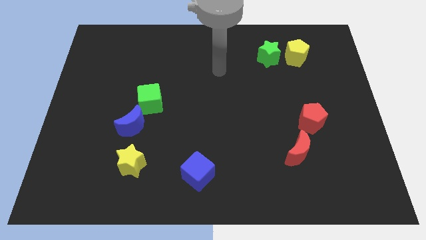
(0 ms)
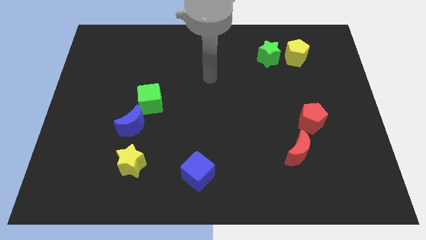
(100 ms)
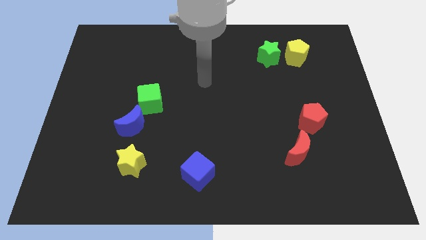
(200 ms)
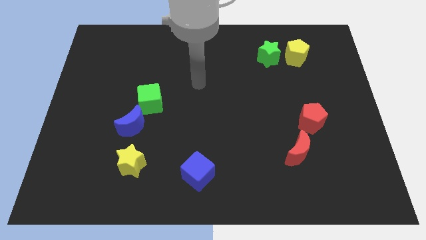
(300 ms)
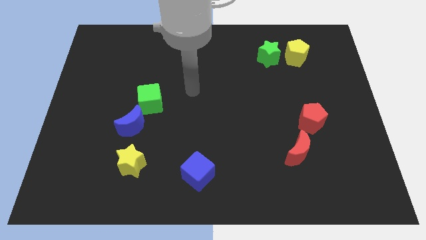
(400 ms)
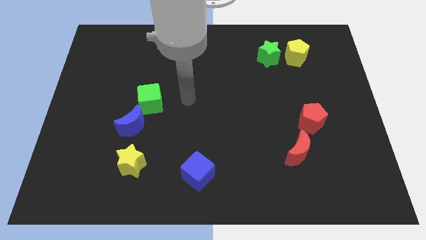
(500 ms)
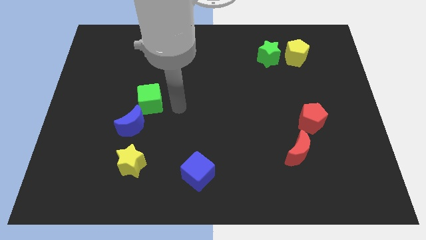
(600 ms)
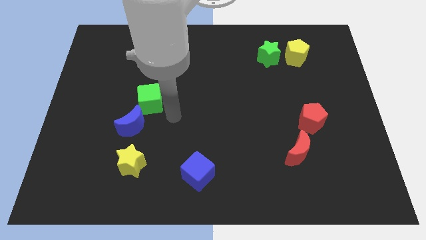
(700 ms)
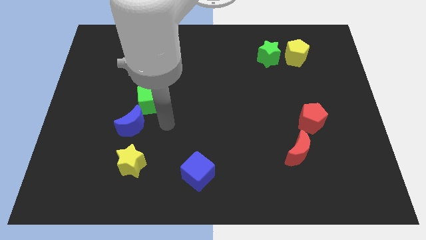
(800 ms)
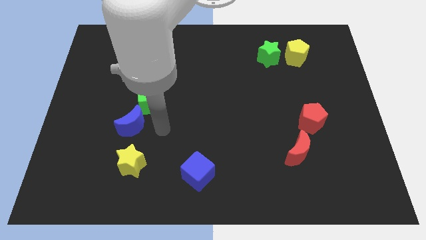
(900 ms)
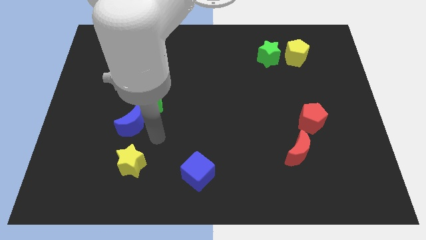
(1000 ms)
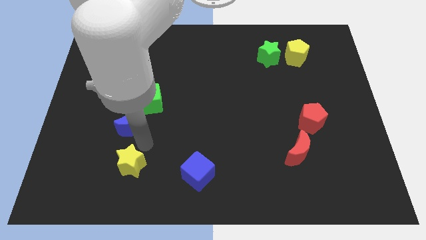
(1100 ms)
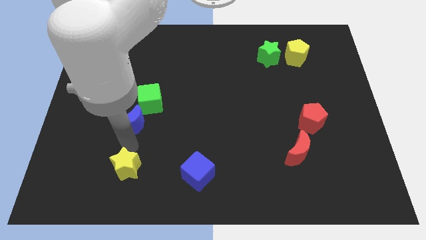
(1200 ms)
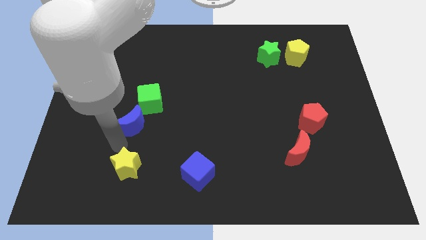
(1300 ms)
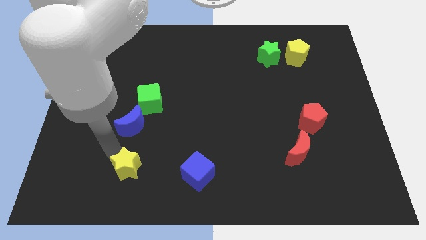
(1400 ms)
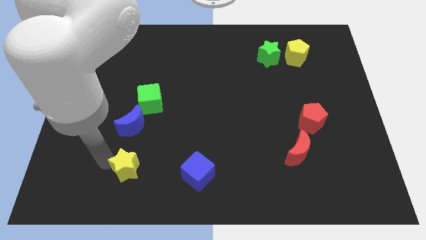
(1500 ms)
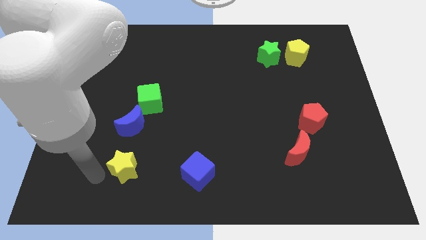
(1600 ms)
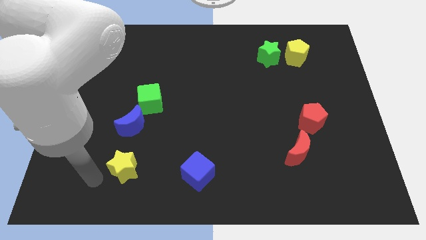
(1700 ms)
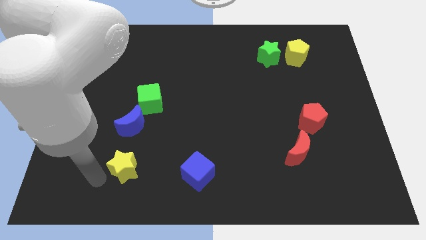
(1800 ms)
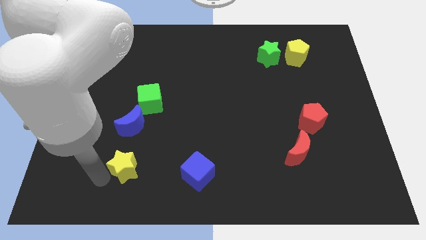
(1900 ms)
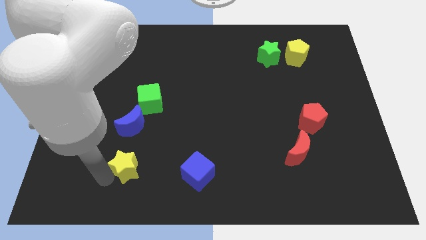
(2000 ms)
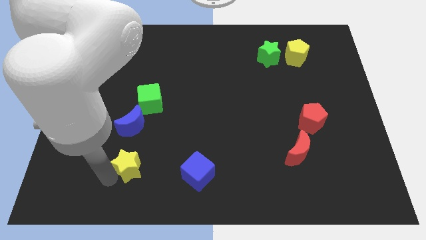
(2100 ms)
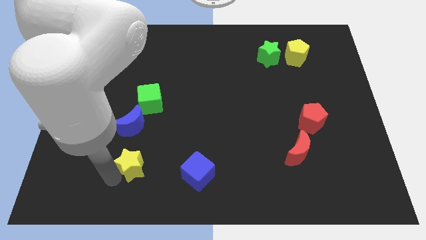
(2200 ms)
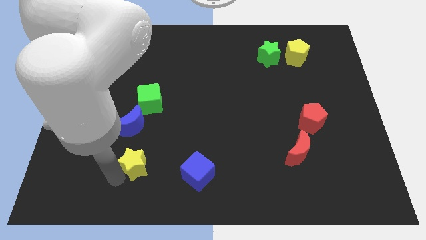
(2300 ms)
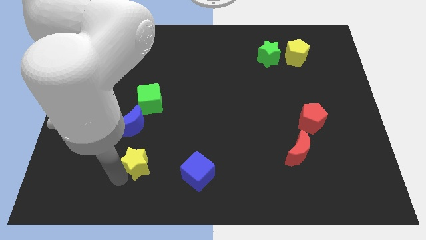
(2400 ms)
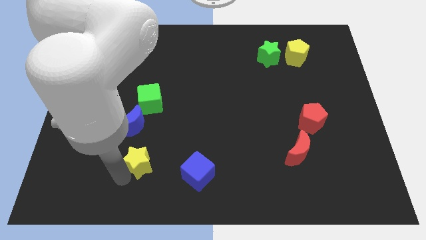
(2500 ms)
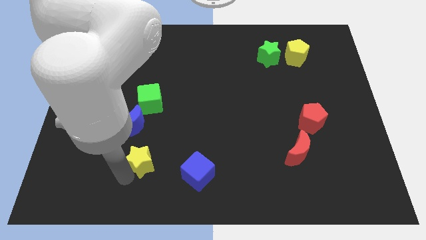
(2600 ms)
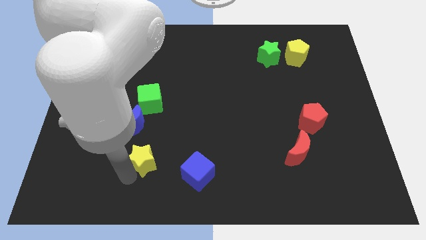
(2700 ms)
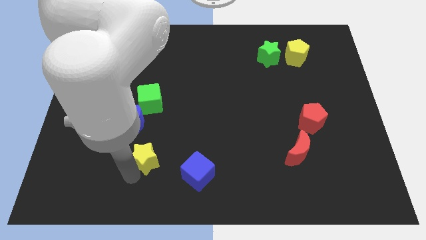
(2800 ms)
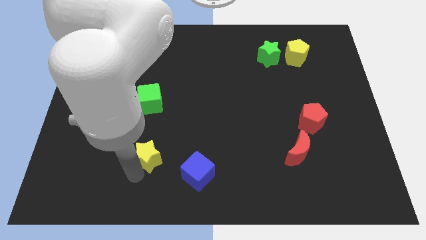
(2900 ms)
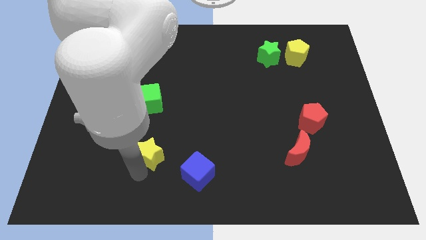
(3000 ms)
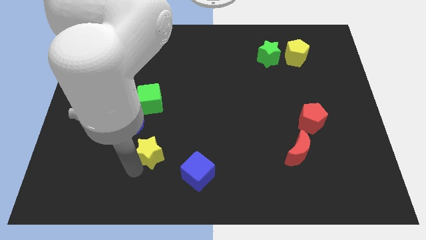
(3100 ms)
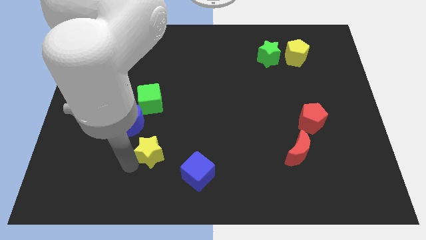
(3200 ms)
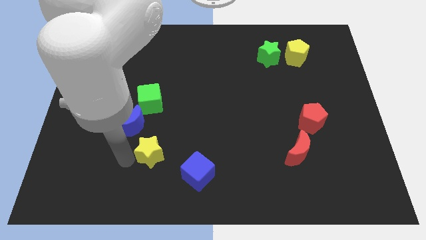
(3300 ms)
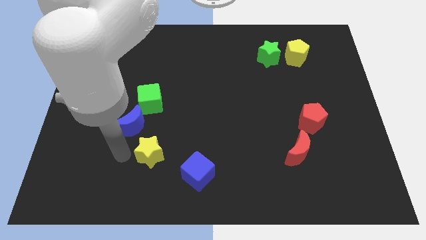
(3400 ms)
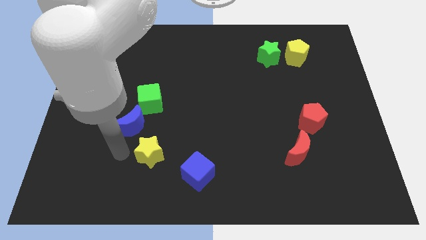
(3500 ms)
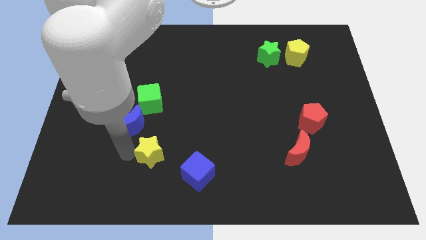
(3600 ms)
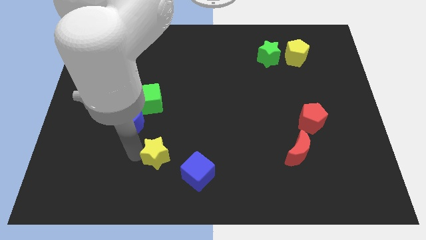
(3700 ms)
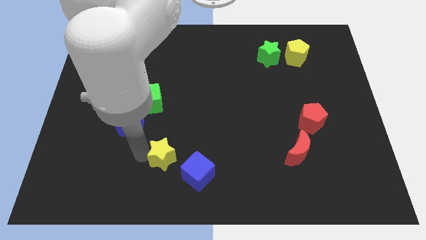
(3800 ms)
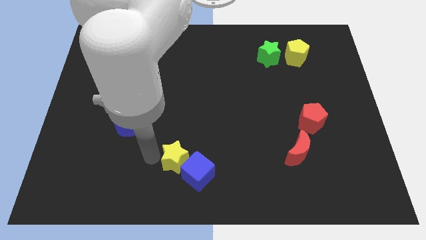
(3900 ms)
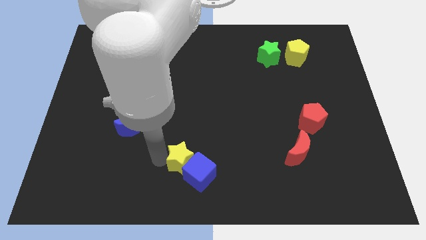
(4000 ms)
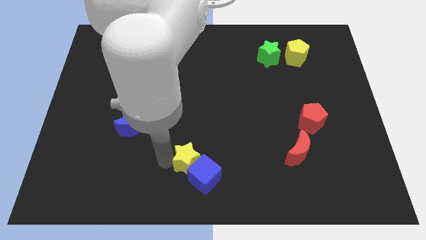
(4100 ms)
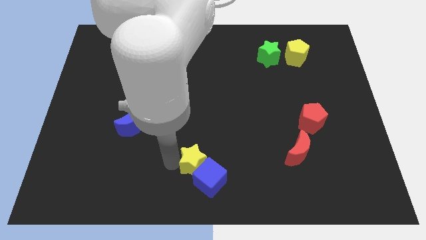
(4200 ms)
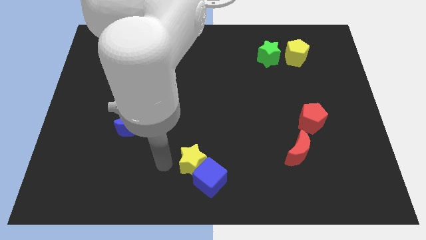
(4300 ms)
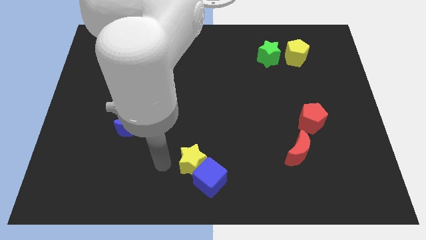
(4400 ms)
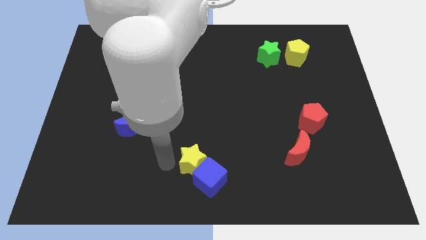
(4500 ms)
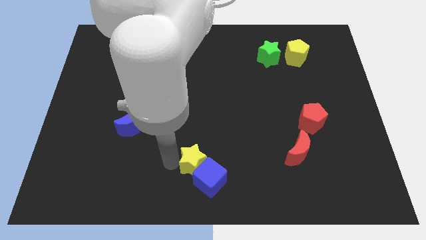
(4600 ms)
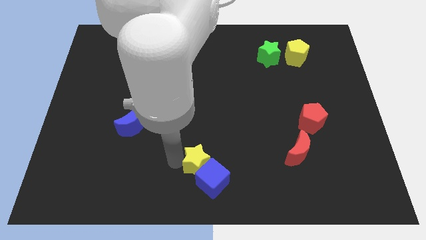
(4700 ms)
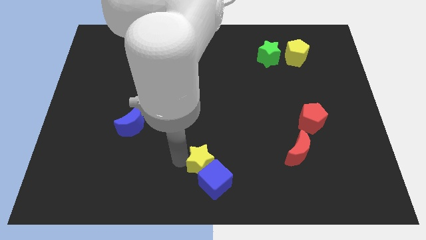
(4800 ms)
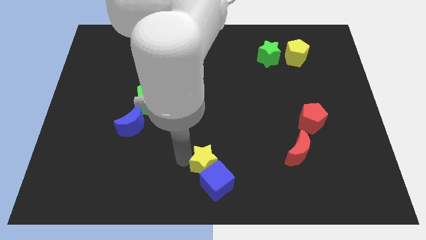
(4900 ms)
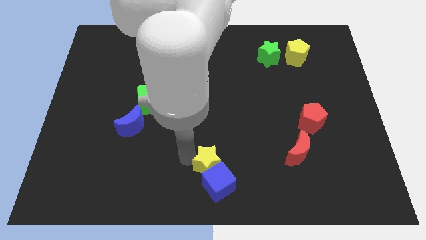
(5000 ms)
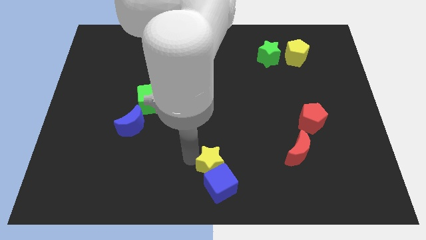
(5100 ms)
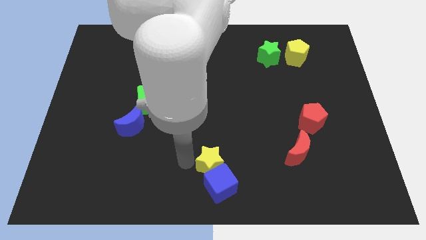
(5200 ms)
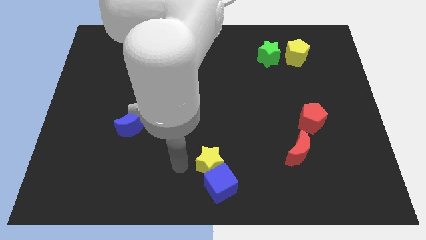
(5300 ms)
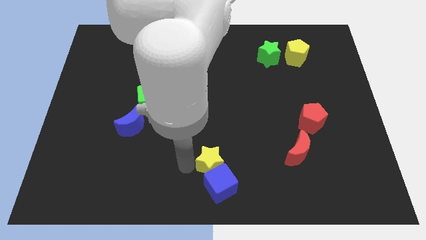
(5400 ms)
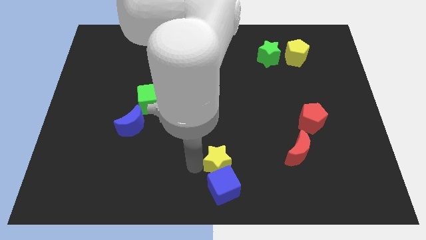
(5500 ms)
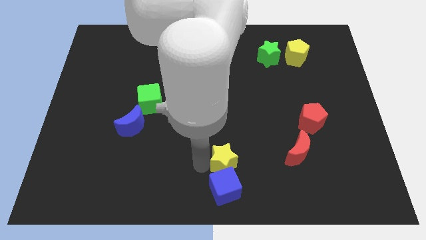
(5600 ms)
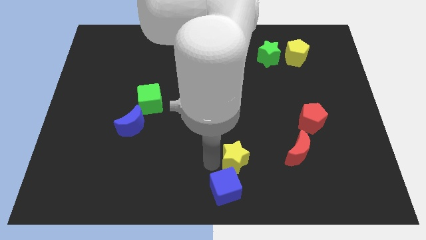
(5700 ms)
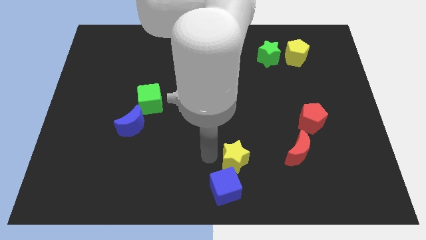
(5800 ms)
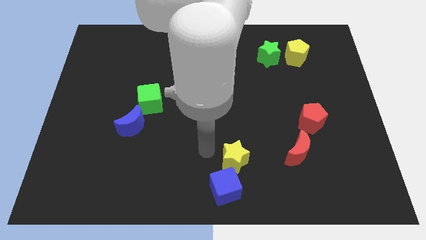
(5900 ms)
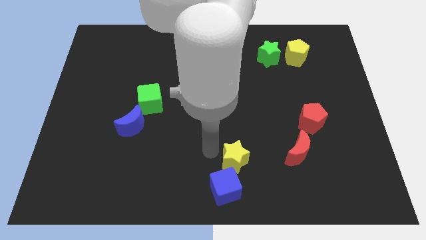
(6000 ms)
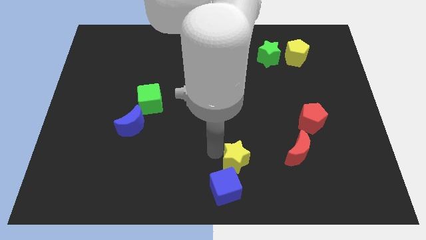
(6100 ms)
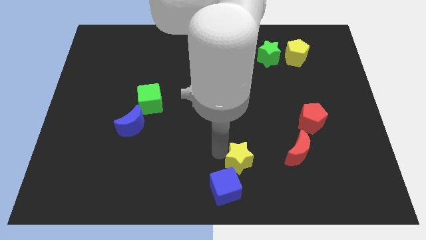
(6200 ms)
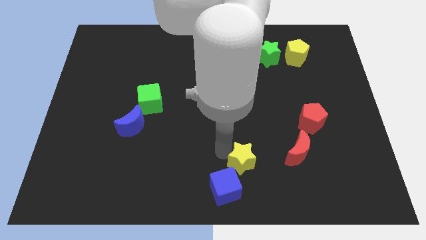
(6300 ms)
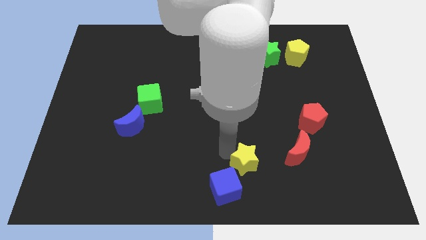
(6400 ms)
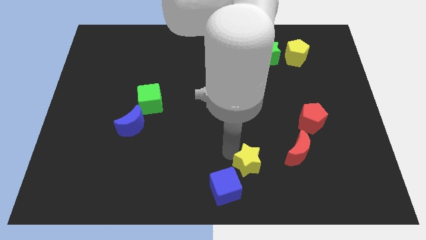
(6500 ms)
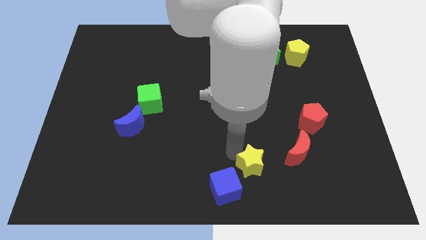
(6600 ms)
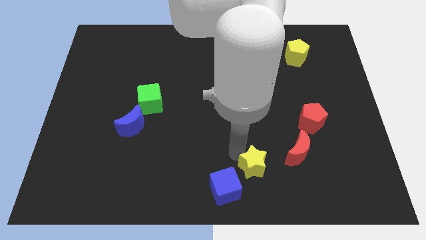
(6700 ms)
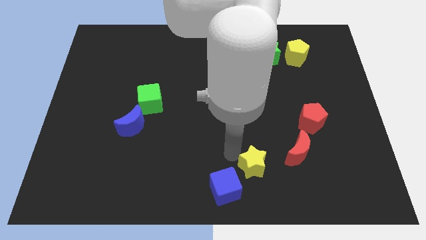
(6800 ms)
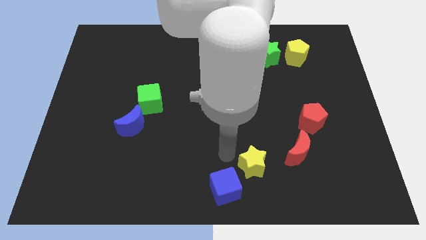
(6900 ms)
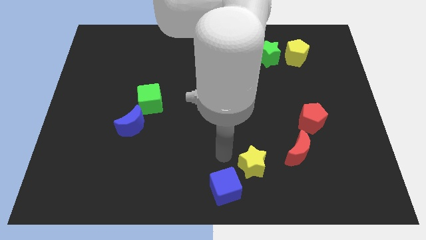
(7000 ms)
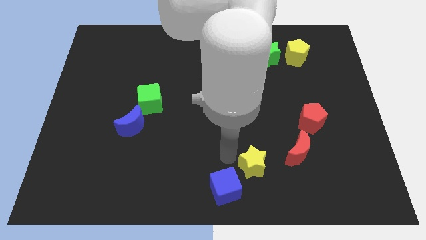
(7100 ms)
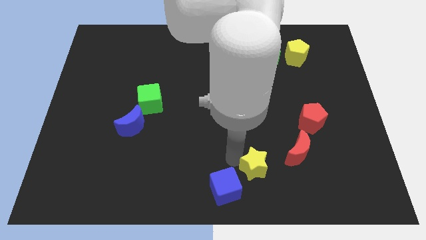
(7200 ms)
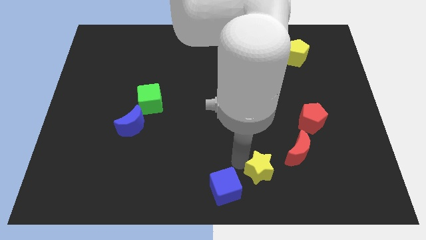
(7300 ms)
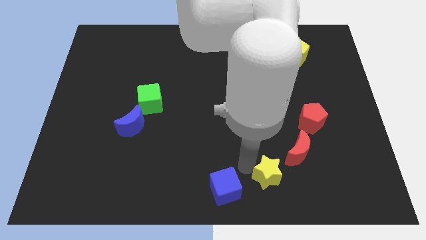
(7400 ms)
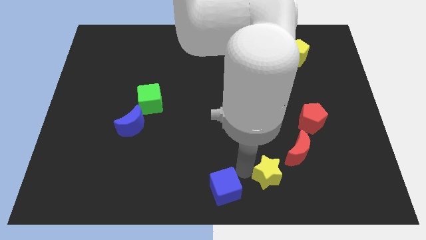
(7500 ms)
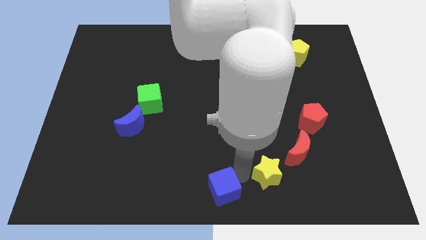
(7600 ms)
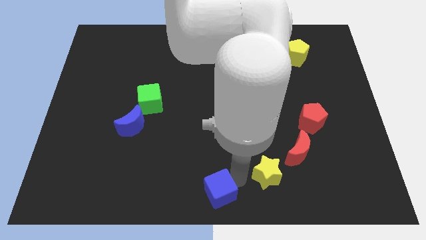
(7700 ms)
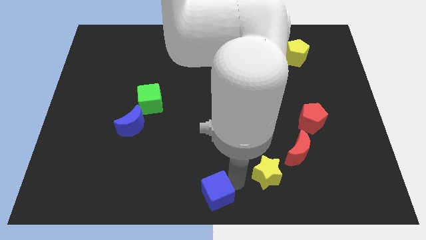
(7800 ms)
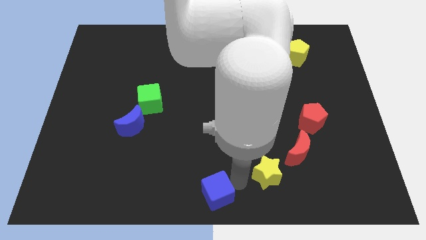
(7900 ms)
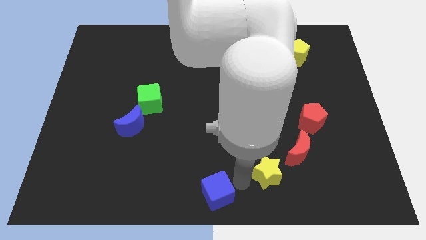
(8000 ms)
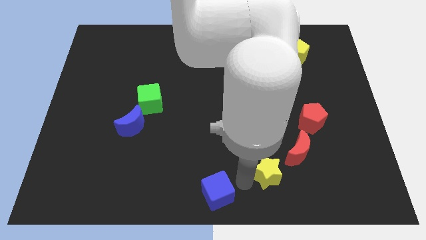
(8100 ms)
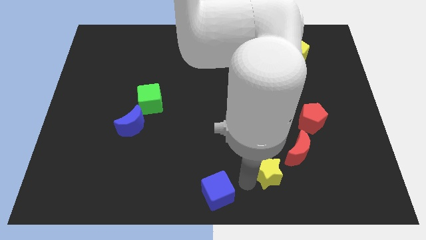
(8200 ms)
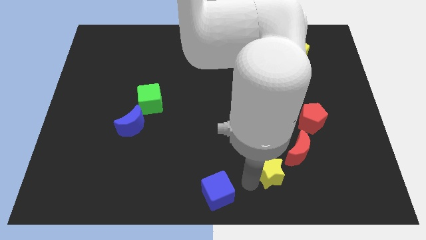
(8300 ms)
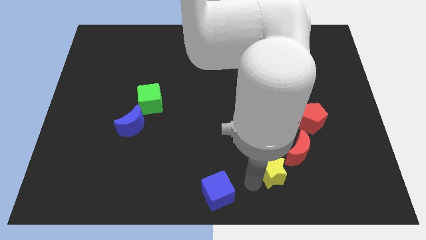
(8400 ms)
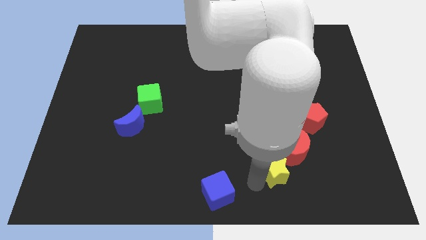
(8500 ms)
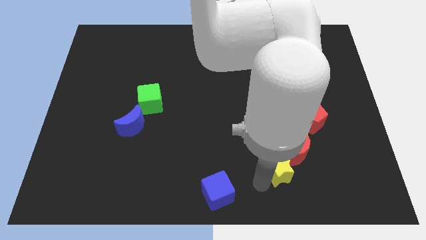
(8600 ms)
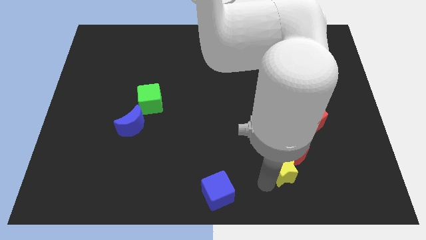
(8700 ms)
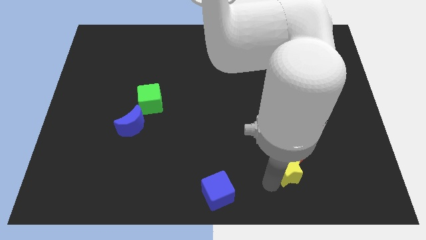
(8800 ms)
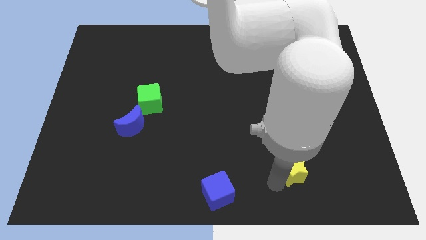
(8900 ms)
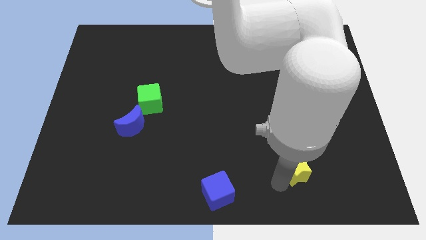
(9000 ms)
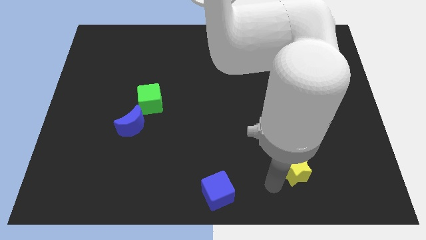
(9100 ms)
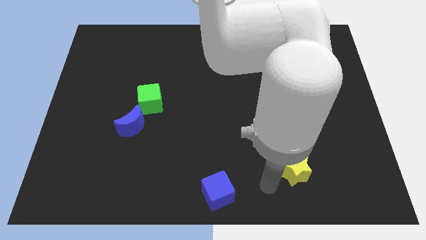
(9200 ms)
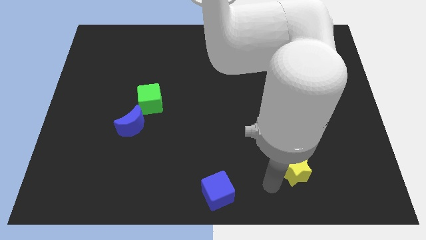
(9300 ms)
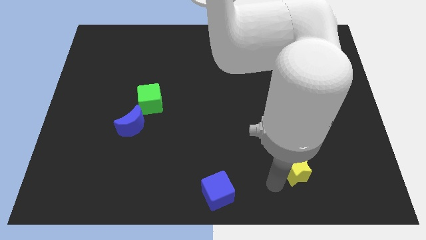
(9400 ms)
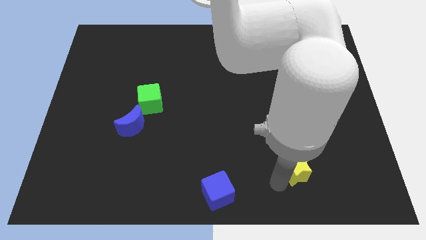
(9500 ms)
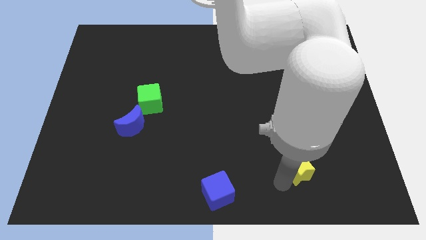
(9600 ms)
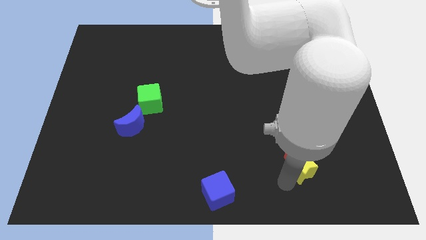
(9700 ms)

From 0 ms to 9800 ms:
put the yellow star to the bottom of the red pentagon
